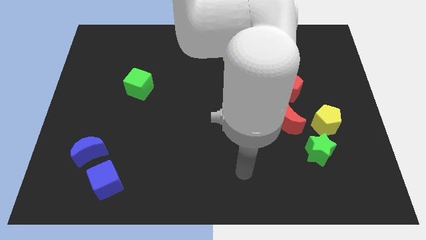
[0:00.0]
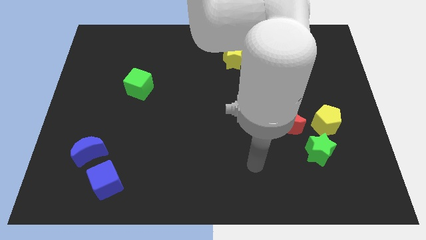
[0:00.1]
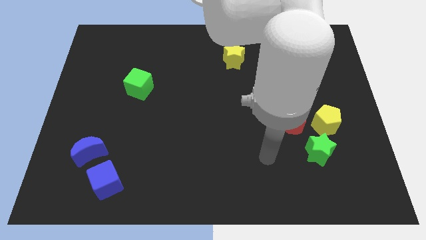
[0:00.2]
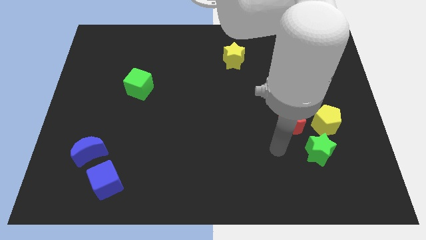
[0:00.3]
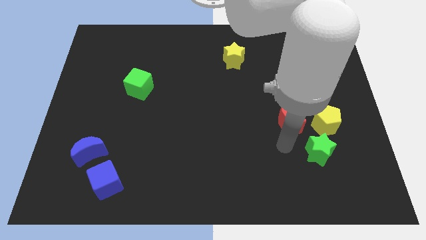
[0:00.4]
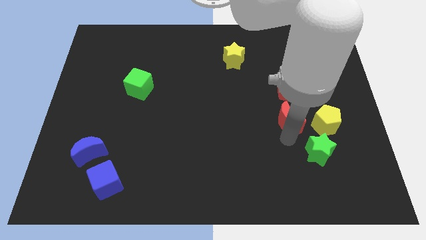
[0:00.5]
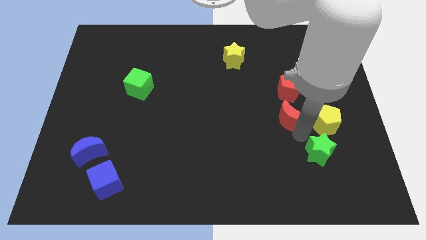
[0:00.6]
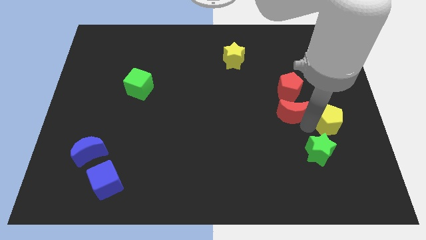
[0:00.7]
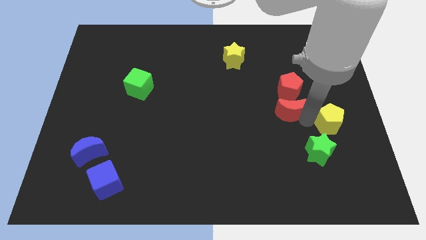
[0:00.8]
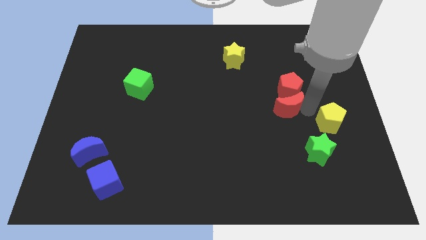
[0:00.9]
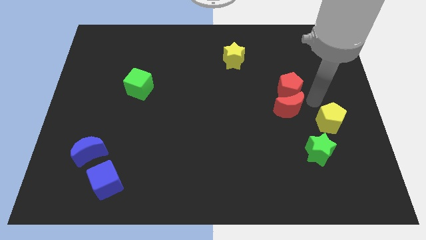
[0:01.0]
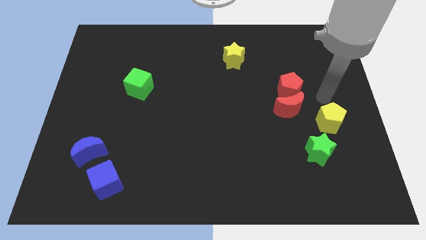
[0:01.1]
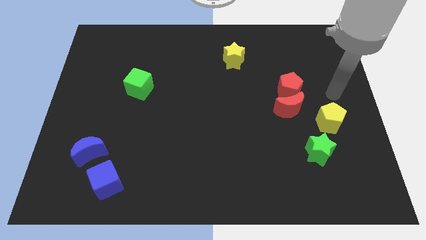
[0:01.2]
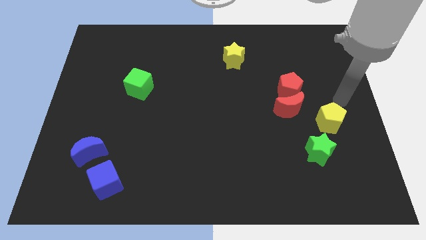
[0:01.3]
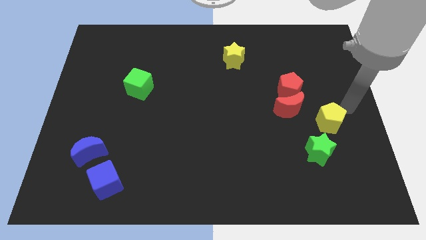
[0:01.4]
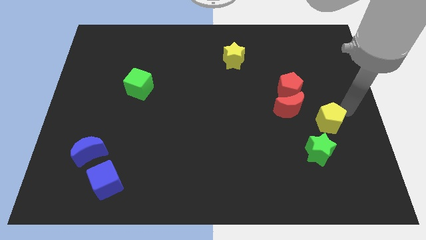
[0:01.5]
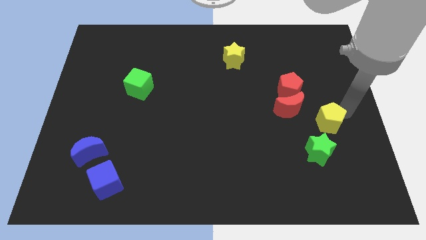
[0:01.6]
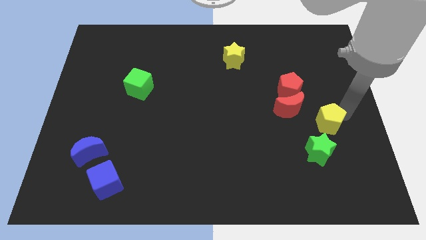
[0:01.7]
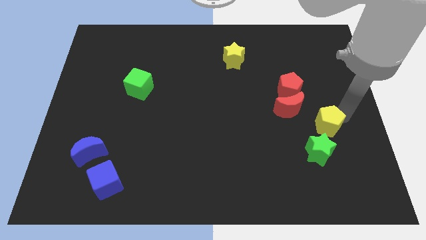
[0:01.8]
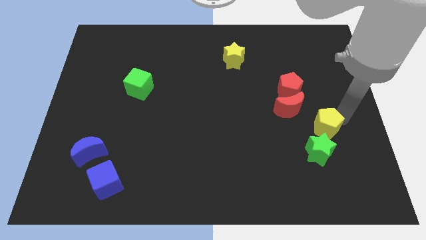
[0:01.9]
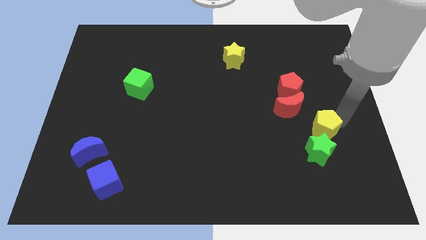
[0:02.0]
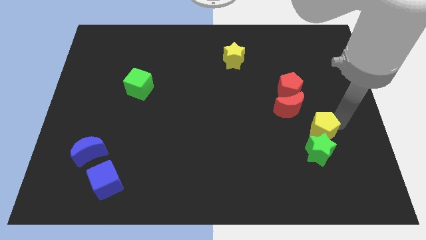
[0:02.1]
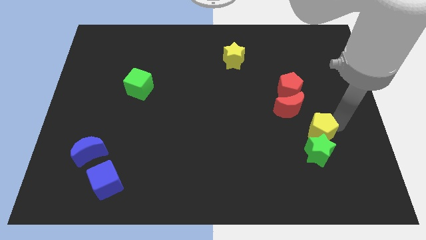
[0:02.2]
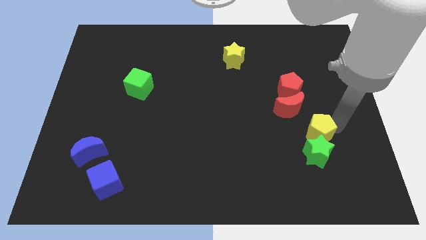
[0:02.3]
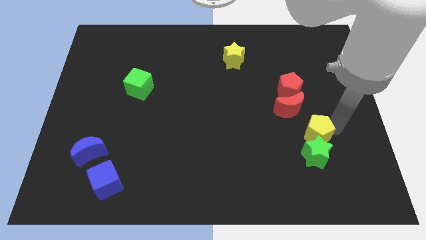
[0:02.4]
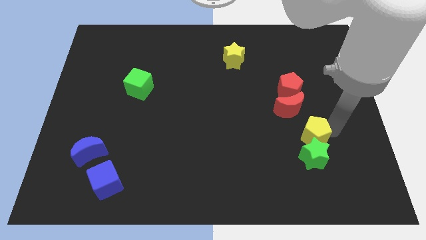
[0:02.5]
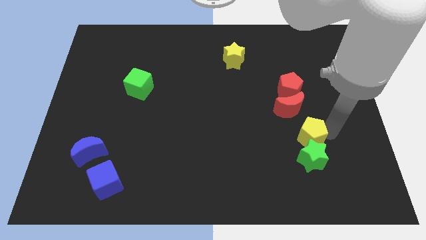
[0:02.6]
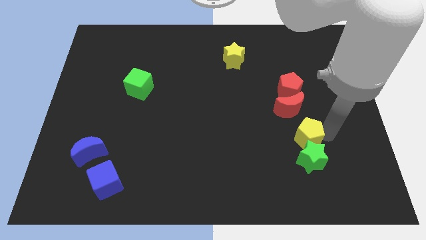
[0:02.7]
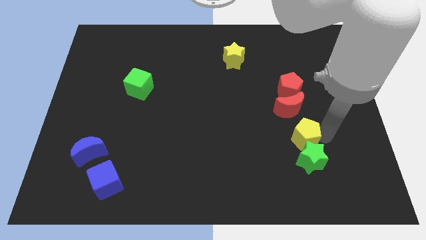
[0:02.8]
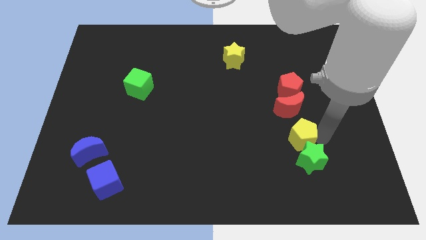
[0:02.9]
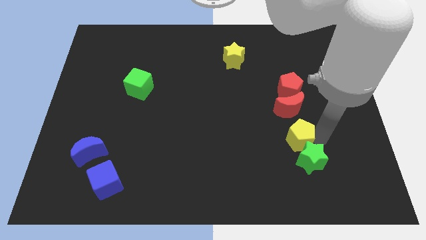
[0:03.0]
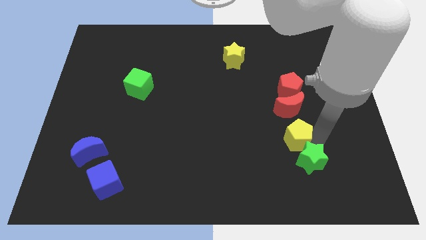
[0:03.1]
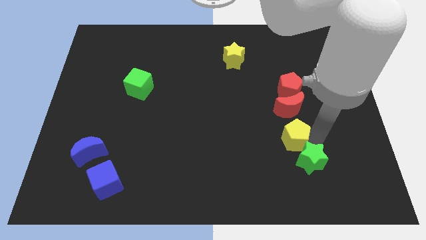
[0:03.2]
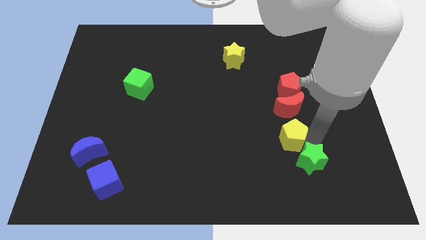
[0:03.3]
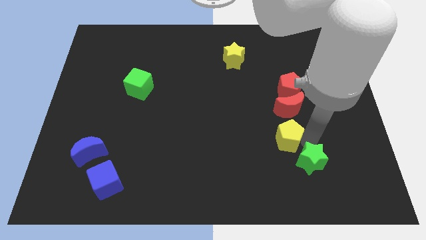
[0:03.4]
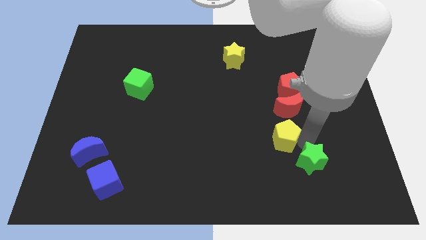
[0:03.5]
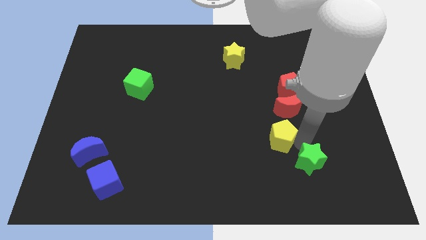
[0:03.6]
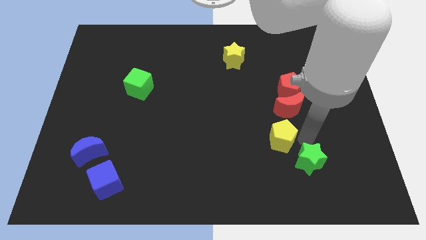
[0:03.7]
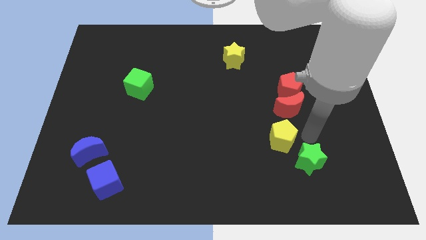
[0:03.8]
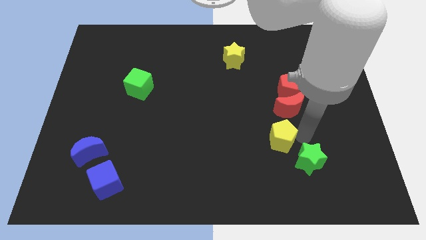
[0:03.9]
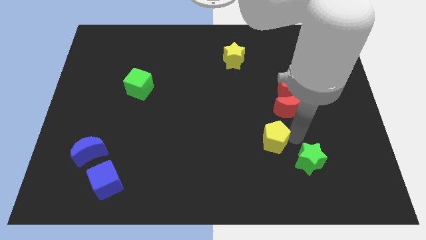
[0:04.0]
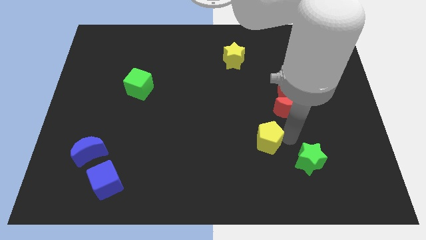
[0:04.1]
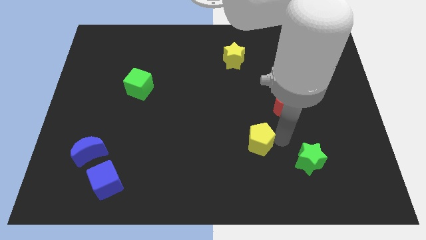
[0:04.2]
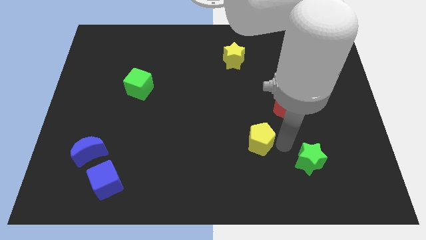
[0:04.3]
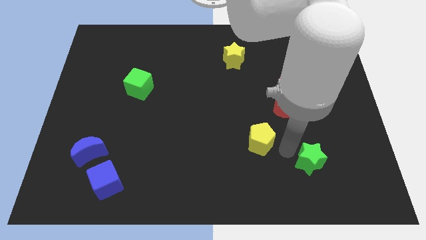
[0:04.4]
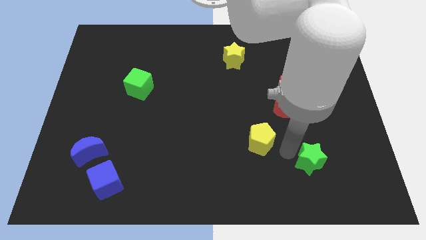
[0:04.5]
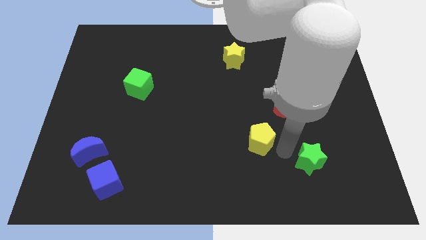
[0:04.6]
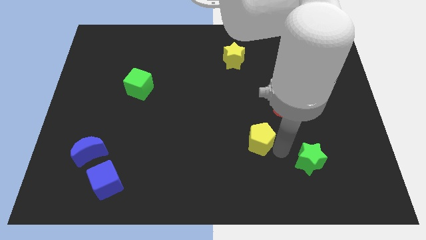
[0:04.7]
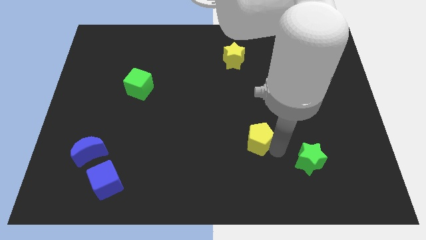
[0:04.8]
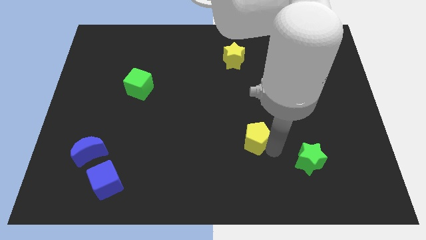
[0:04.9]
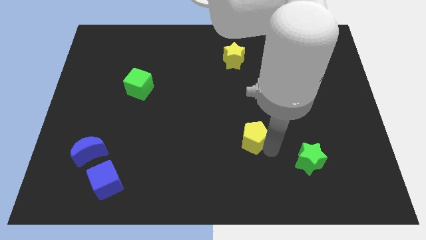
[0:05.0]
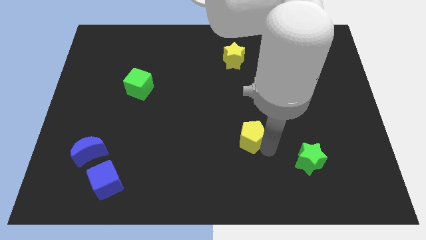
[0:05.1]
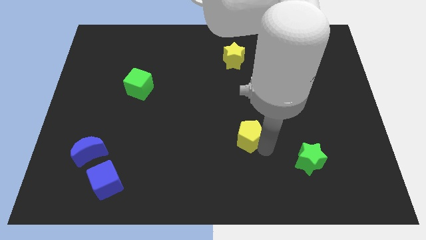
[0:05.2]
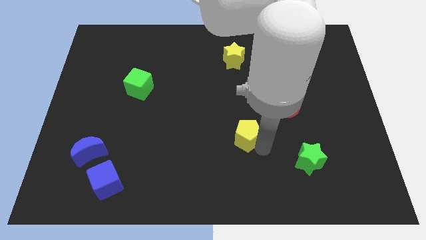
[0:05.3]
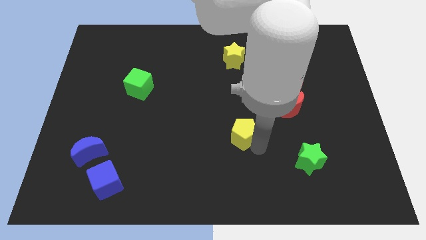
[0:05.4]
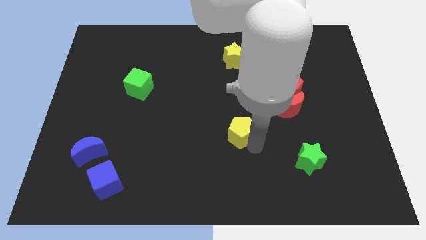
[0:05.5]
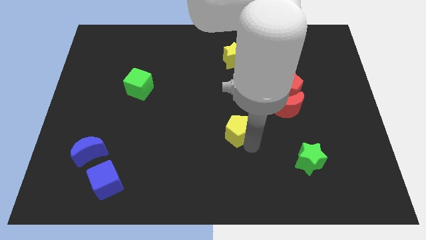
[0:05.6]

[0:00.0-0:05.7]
move the yellow pentagon left

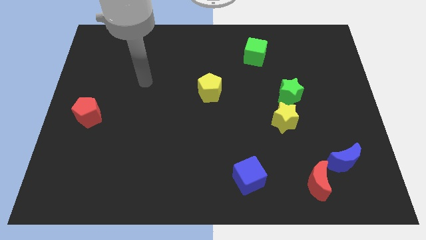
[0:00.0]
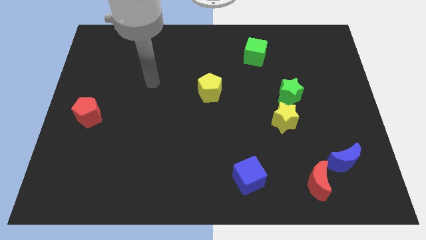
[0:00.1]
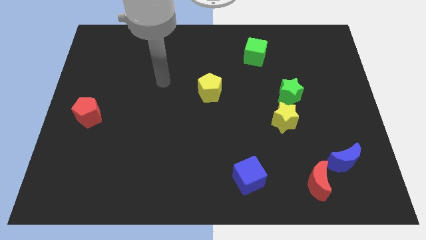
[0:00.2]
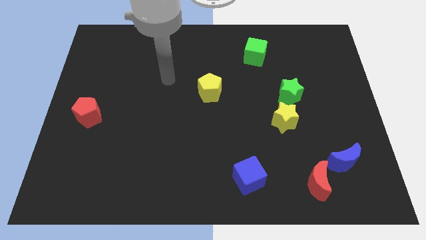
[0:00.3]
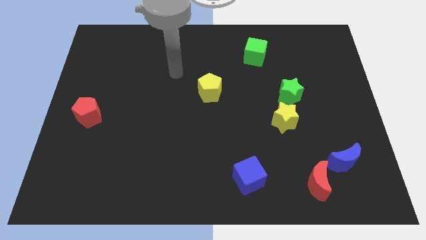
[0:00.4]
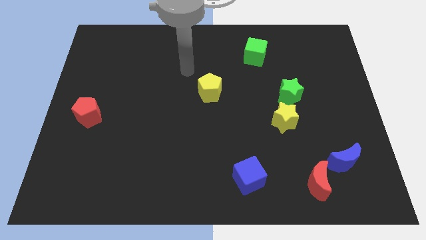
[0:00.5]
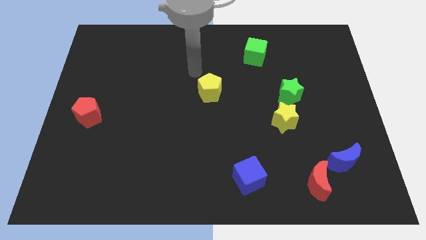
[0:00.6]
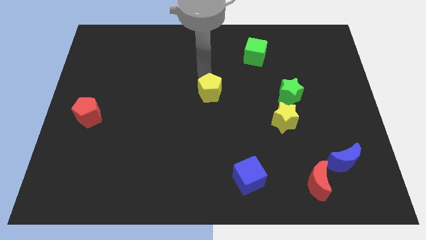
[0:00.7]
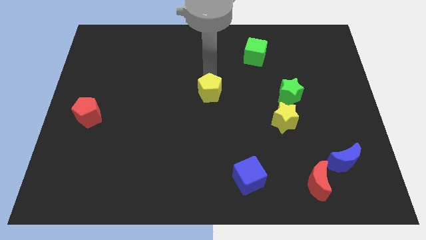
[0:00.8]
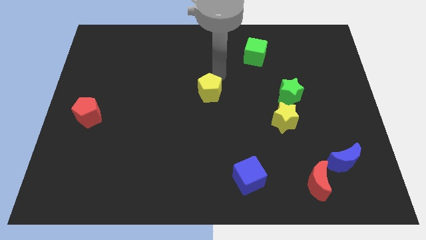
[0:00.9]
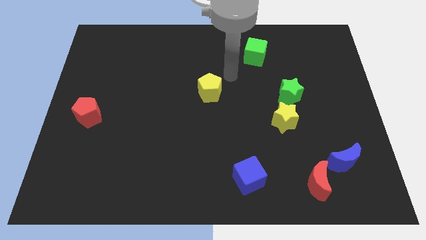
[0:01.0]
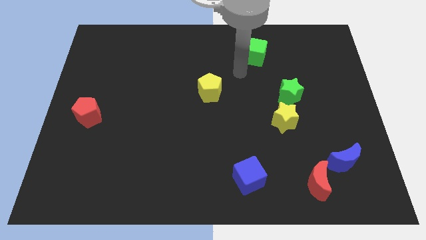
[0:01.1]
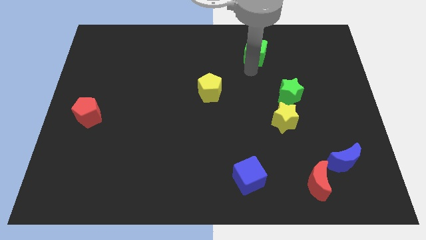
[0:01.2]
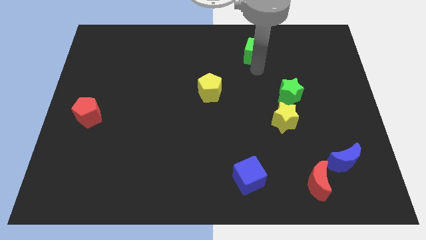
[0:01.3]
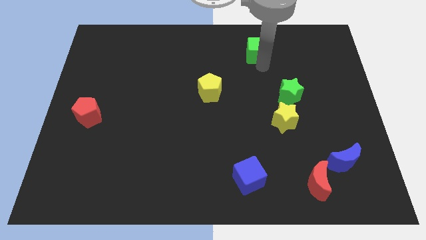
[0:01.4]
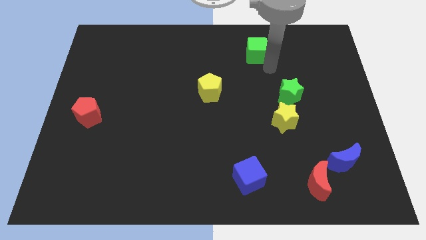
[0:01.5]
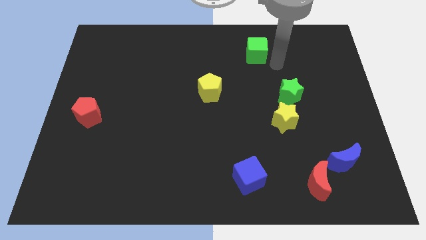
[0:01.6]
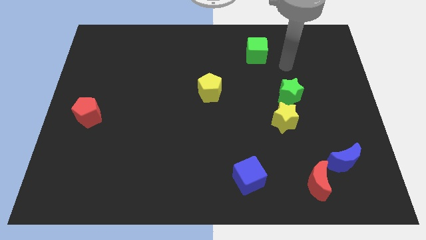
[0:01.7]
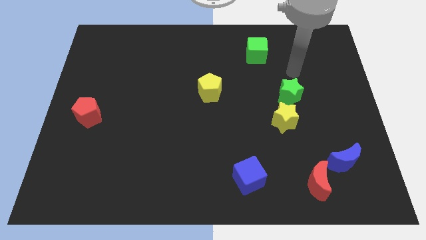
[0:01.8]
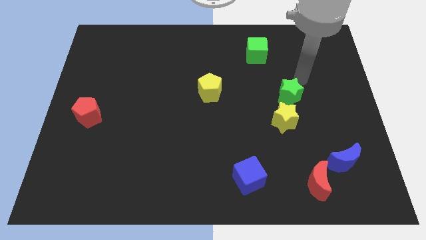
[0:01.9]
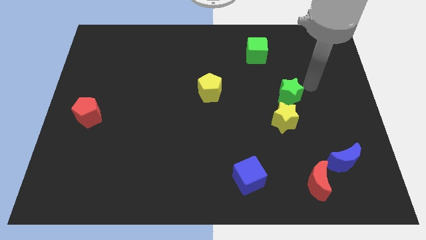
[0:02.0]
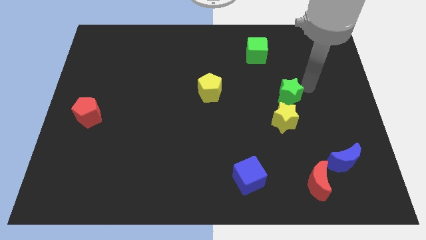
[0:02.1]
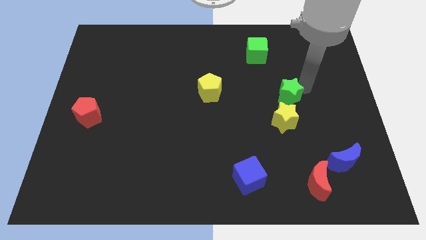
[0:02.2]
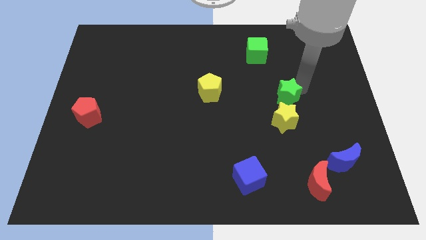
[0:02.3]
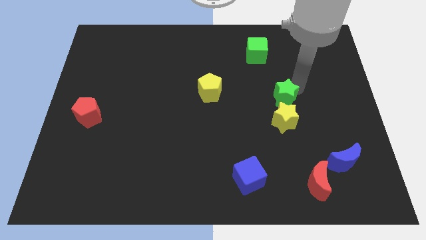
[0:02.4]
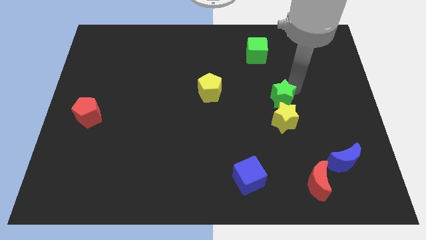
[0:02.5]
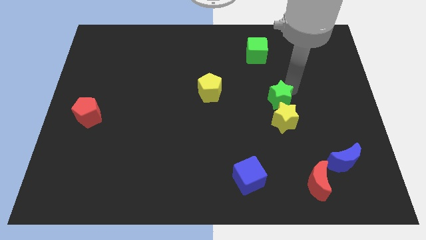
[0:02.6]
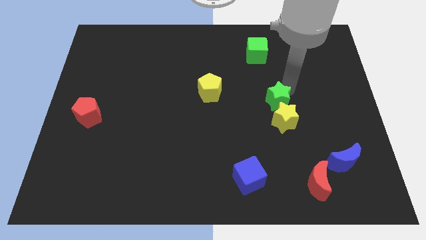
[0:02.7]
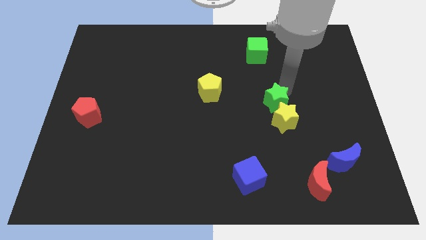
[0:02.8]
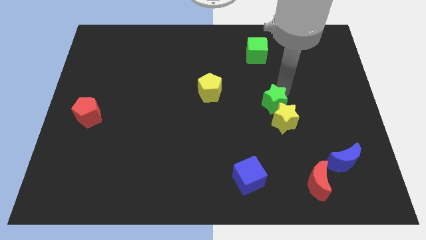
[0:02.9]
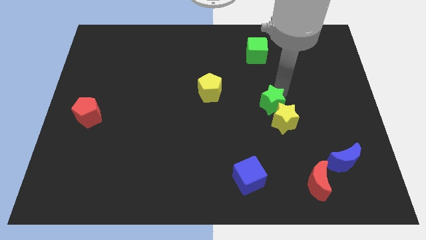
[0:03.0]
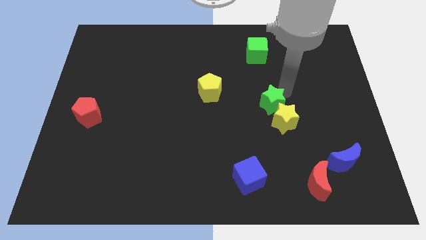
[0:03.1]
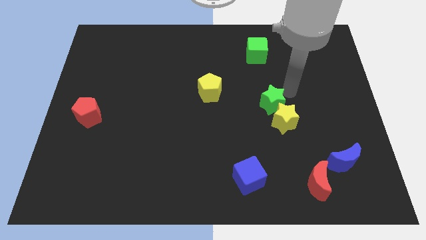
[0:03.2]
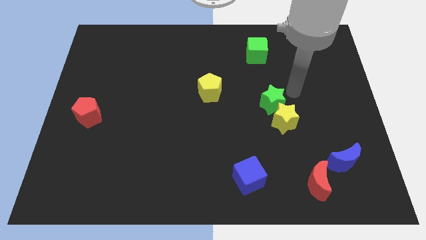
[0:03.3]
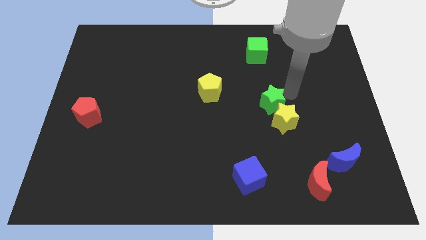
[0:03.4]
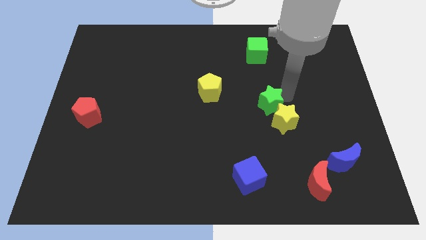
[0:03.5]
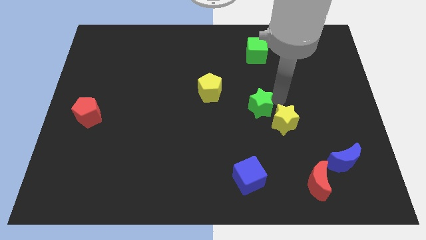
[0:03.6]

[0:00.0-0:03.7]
push the green star a little diagonally downwards and left
